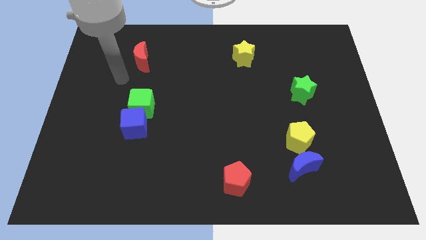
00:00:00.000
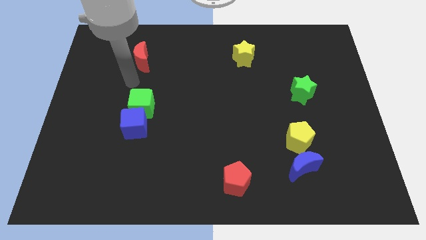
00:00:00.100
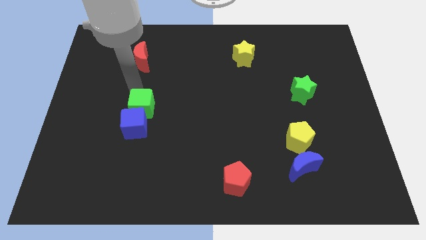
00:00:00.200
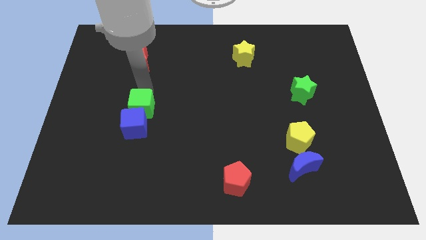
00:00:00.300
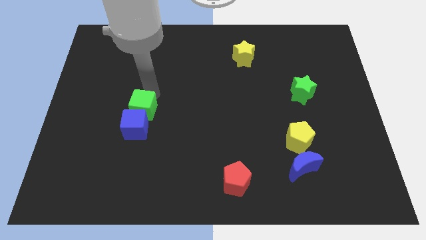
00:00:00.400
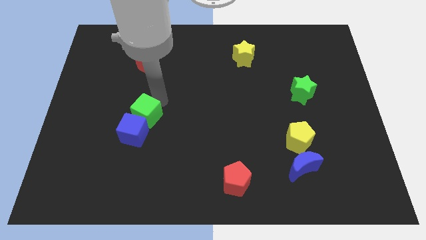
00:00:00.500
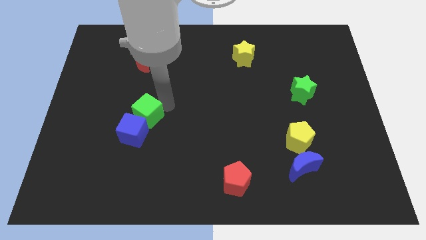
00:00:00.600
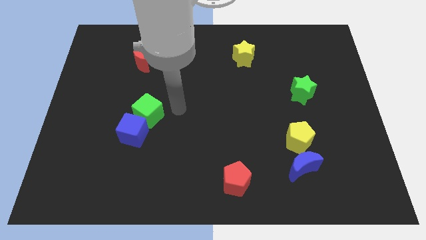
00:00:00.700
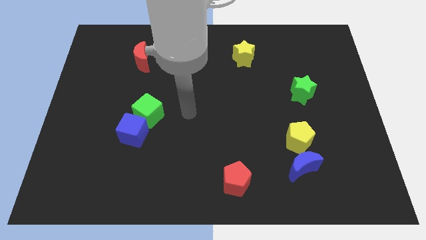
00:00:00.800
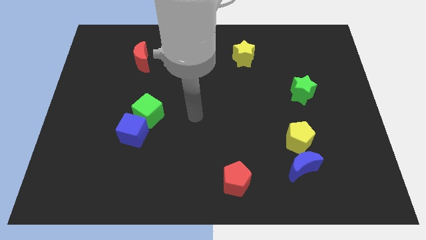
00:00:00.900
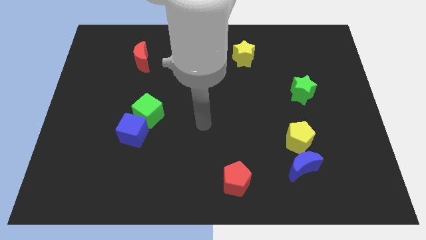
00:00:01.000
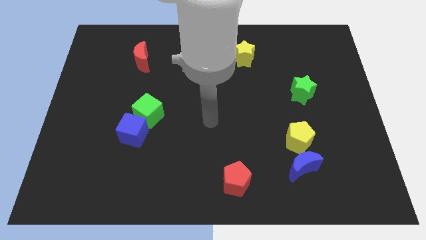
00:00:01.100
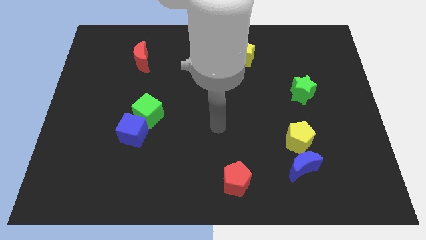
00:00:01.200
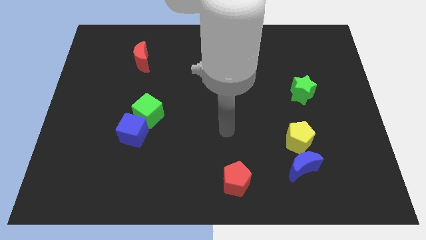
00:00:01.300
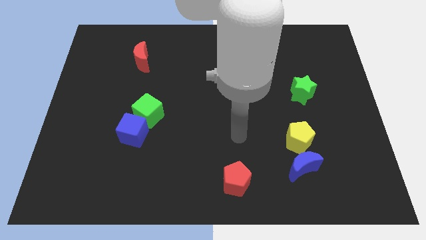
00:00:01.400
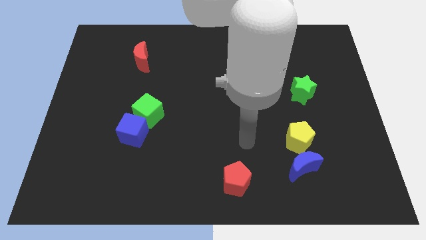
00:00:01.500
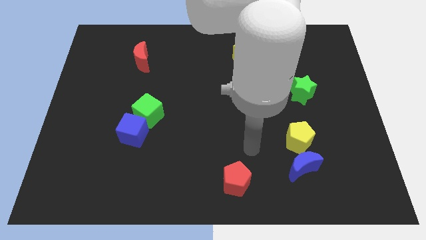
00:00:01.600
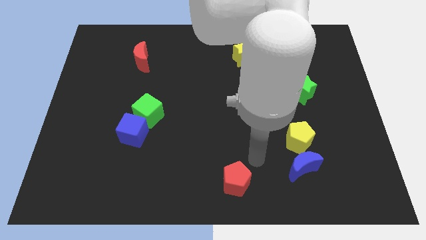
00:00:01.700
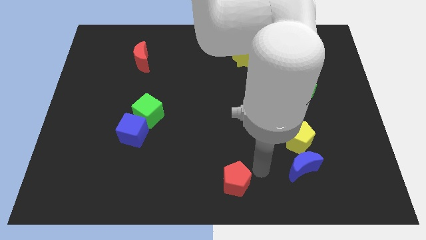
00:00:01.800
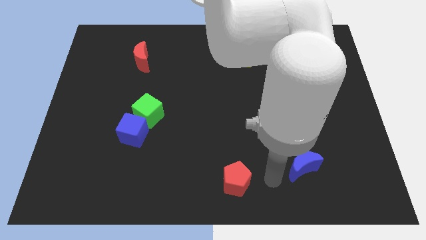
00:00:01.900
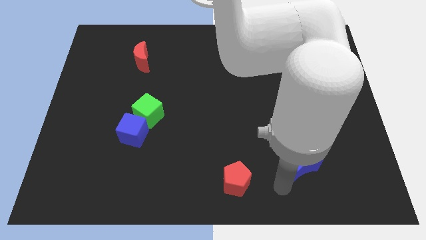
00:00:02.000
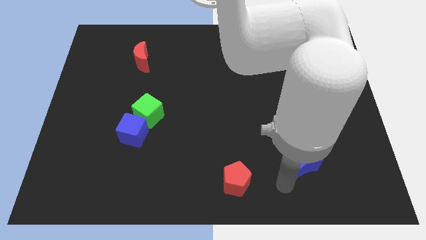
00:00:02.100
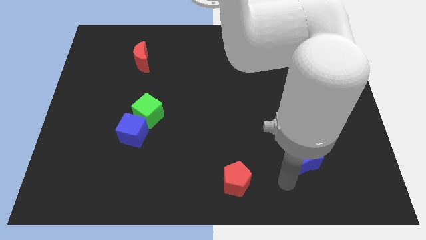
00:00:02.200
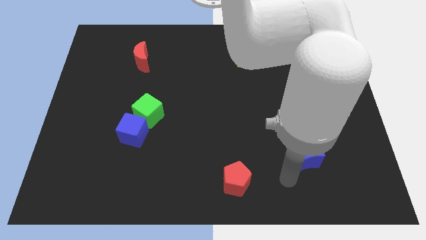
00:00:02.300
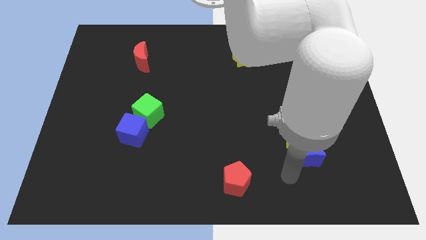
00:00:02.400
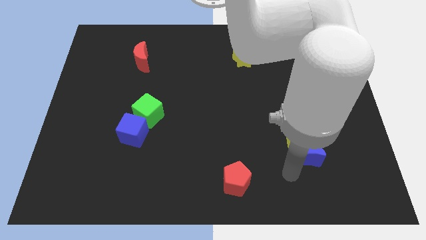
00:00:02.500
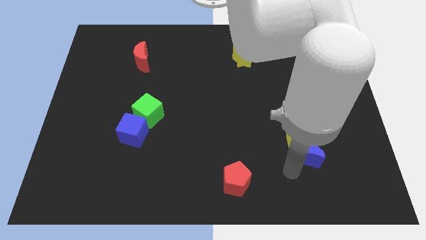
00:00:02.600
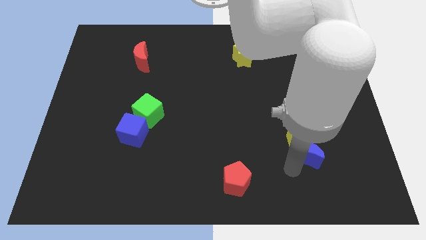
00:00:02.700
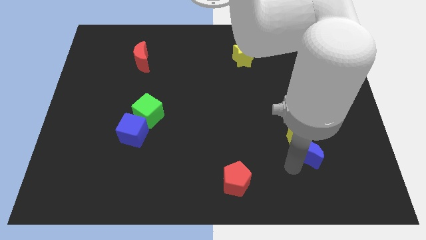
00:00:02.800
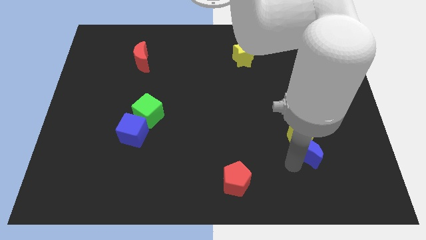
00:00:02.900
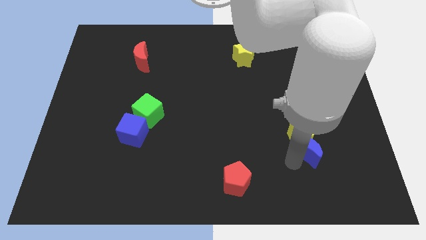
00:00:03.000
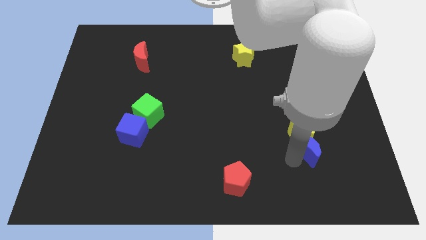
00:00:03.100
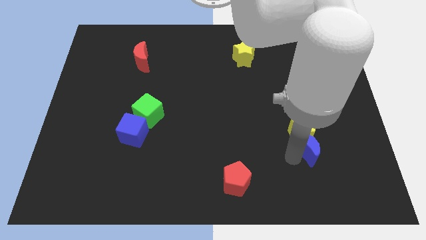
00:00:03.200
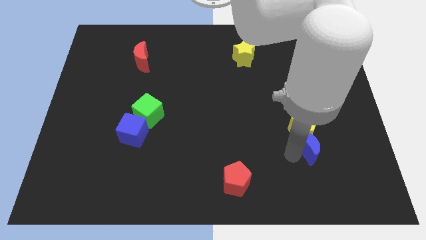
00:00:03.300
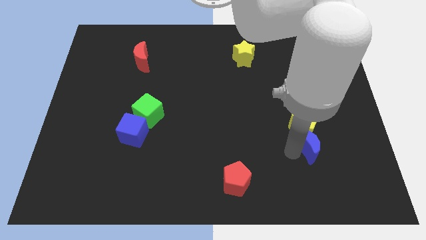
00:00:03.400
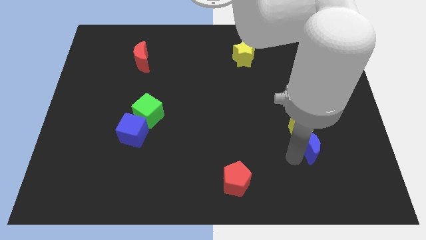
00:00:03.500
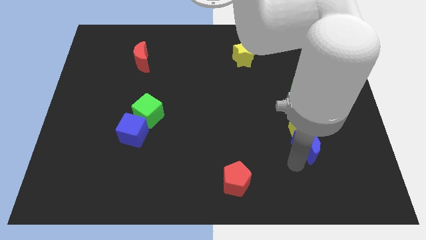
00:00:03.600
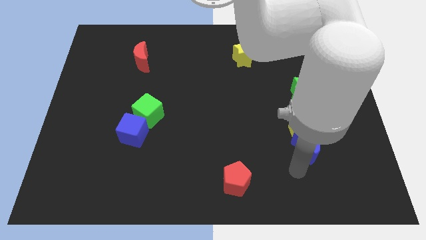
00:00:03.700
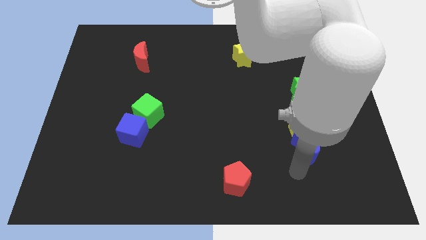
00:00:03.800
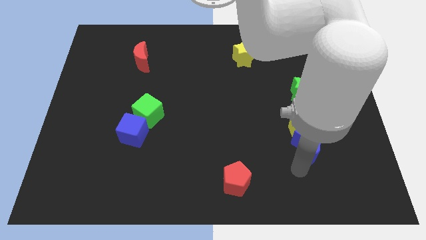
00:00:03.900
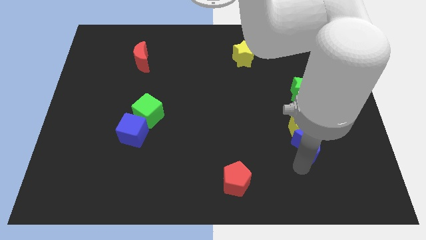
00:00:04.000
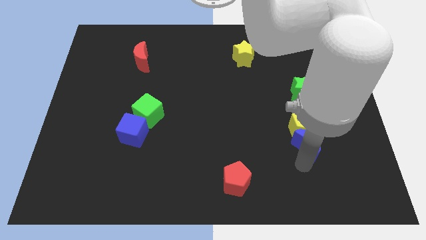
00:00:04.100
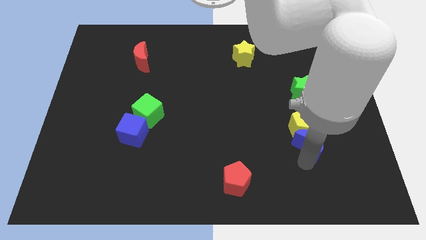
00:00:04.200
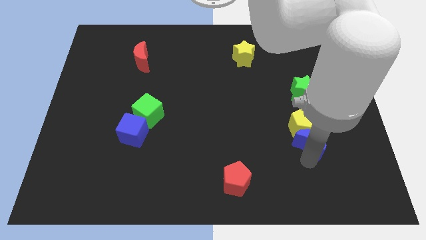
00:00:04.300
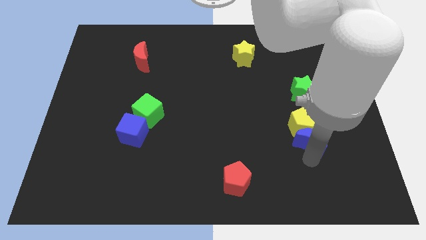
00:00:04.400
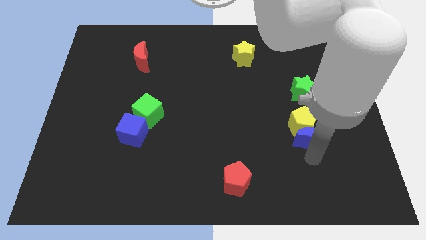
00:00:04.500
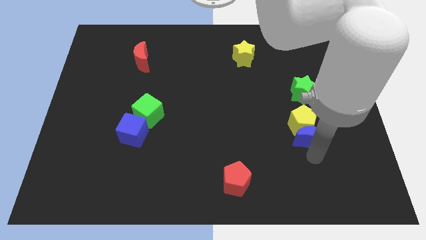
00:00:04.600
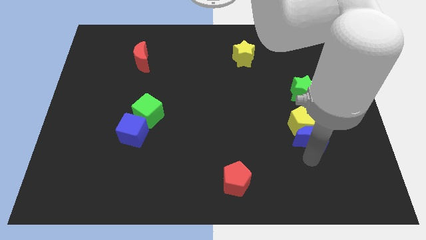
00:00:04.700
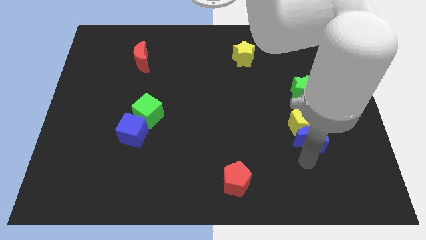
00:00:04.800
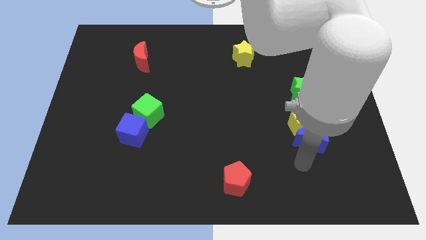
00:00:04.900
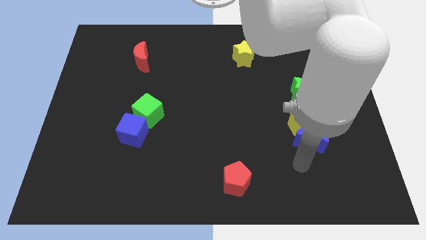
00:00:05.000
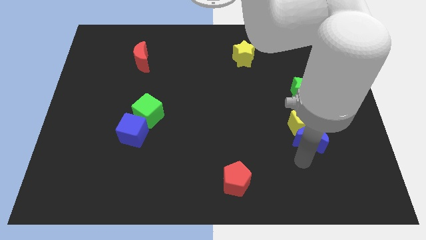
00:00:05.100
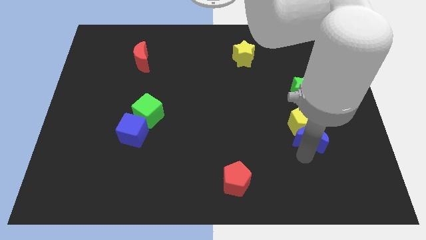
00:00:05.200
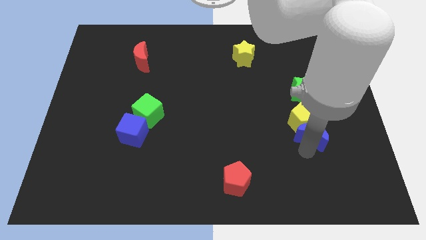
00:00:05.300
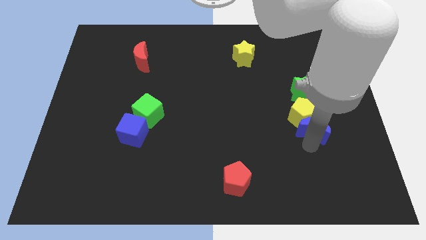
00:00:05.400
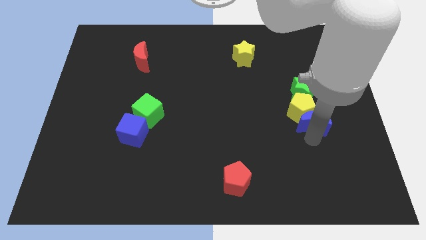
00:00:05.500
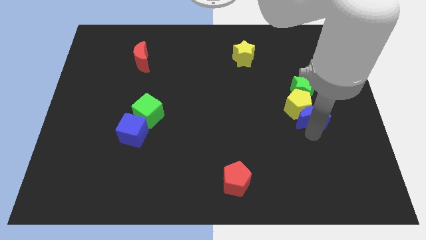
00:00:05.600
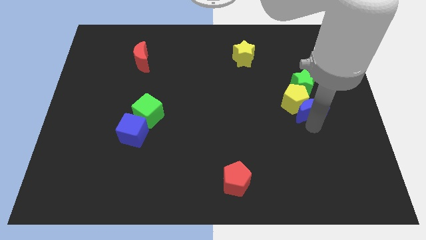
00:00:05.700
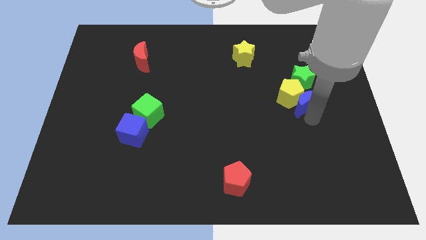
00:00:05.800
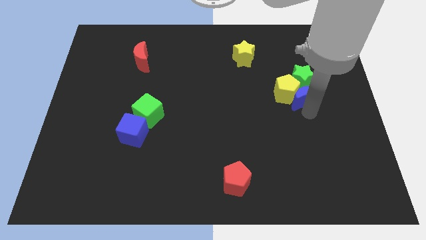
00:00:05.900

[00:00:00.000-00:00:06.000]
move the blue moon to the green star

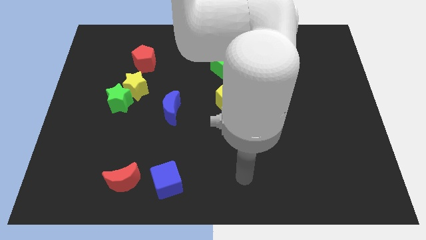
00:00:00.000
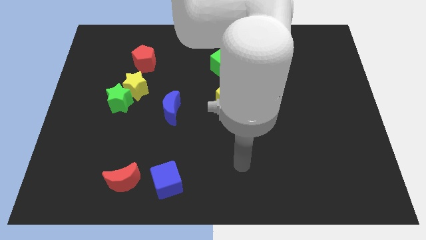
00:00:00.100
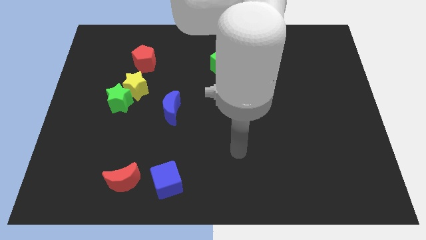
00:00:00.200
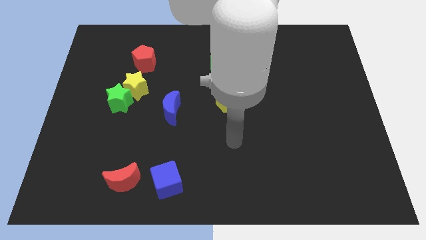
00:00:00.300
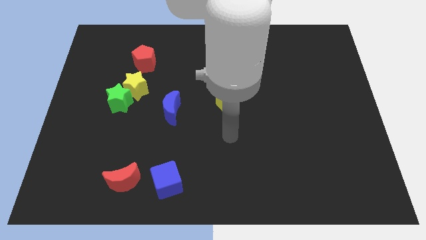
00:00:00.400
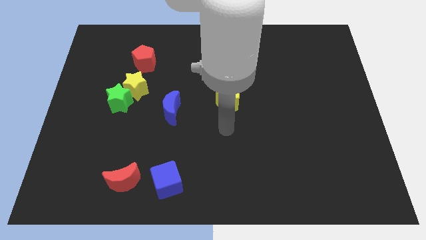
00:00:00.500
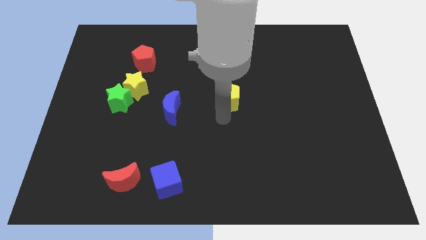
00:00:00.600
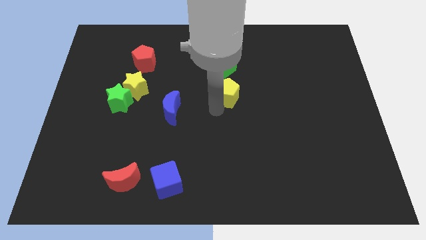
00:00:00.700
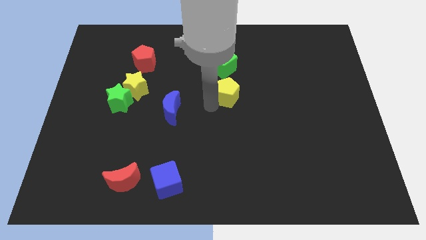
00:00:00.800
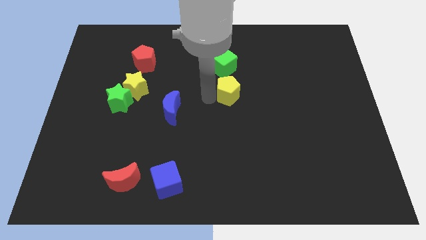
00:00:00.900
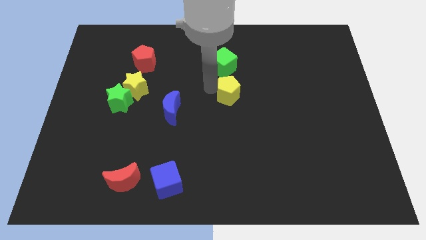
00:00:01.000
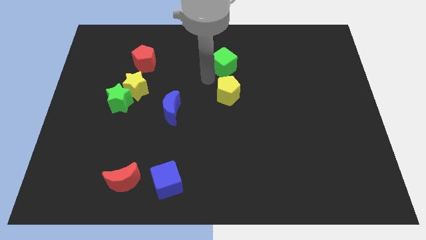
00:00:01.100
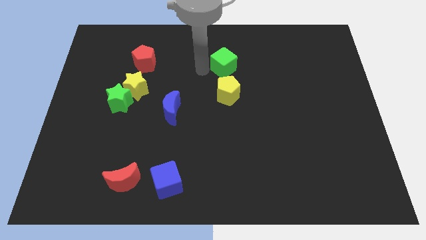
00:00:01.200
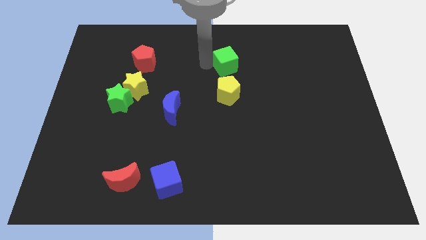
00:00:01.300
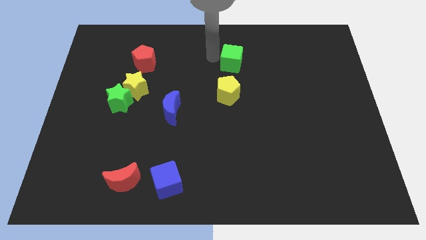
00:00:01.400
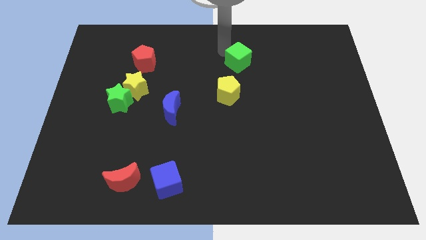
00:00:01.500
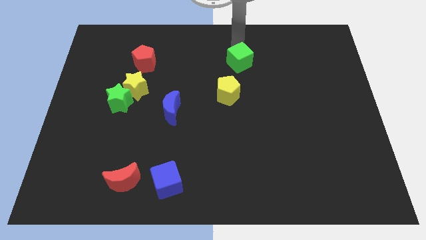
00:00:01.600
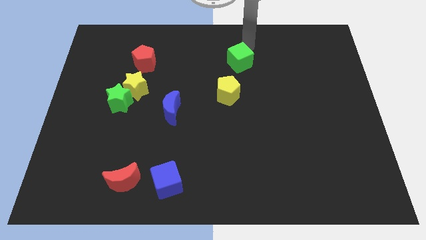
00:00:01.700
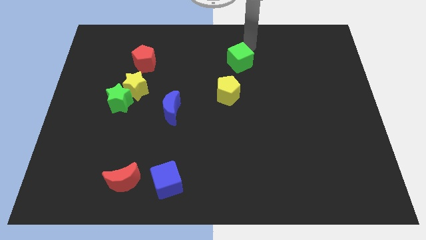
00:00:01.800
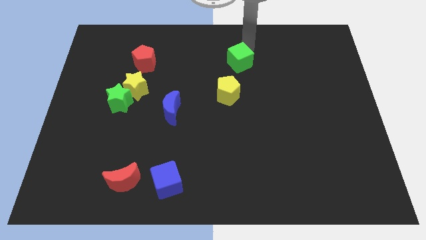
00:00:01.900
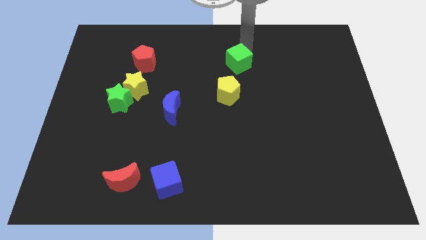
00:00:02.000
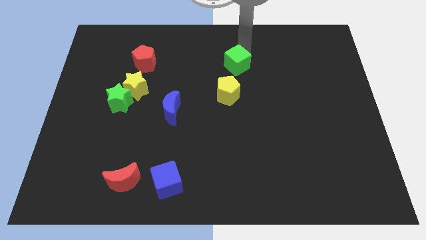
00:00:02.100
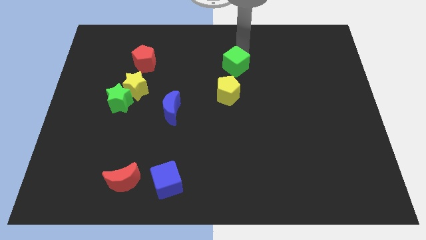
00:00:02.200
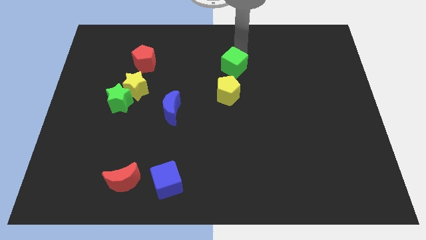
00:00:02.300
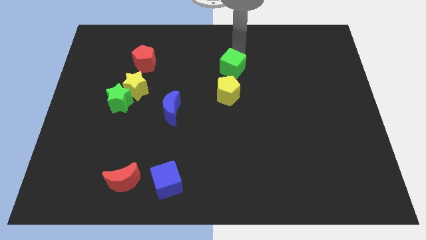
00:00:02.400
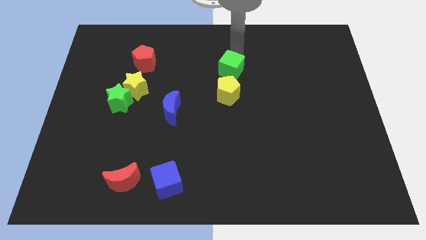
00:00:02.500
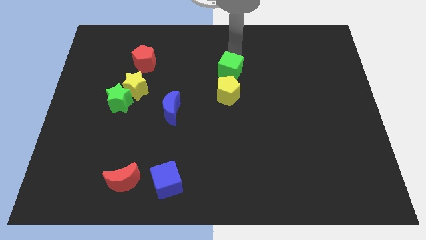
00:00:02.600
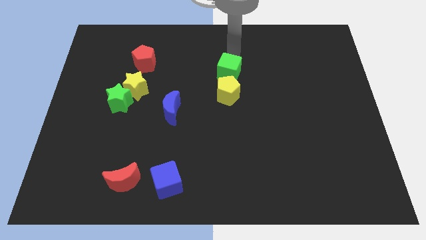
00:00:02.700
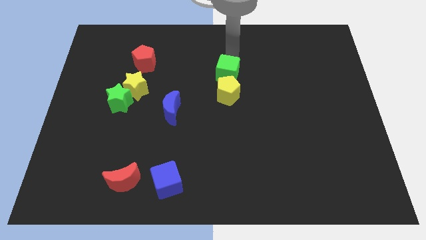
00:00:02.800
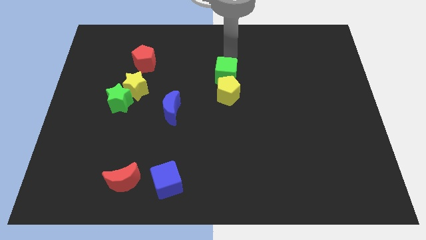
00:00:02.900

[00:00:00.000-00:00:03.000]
slide the green cube to the yellow pentagon
